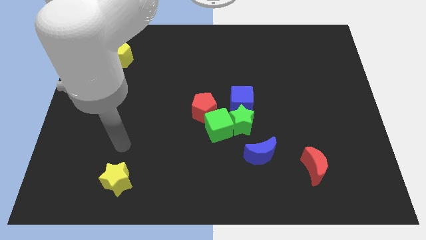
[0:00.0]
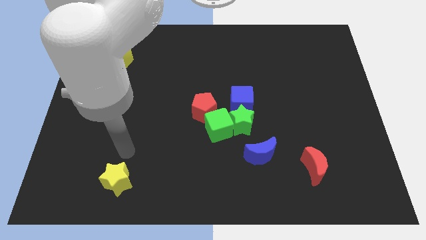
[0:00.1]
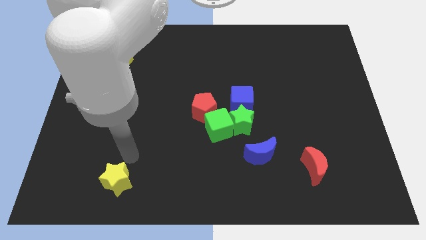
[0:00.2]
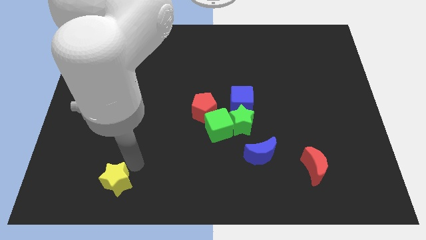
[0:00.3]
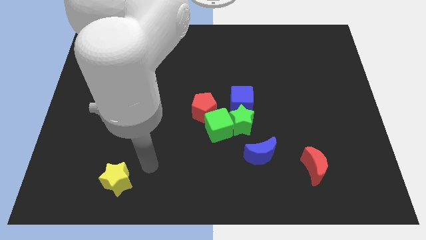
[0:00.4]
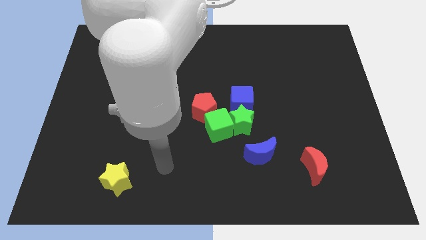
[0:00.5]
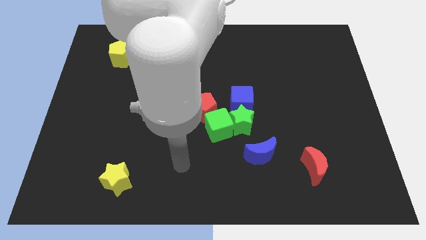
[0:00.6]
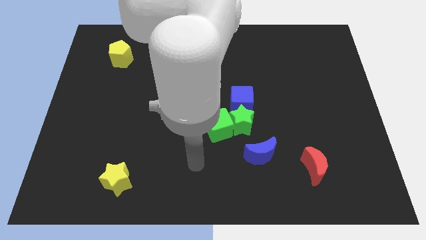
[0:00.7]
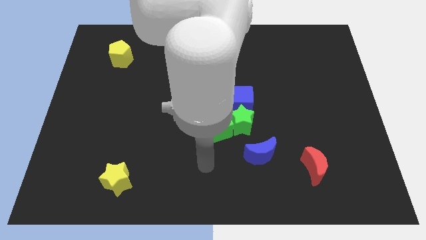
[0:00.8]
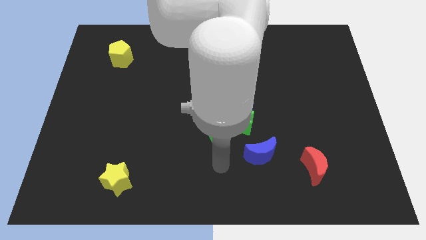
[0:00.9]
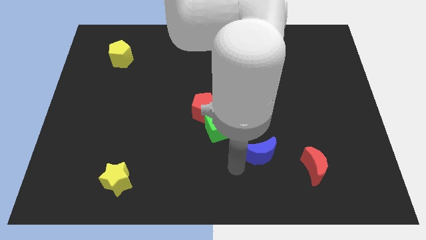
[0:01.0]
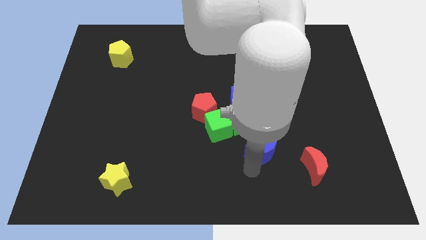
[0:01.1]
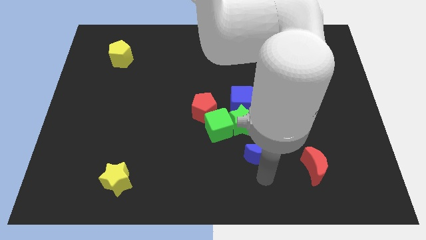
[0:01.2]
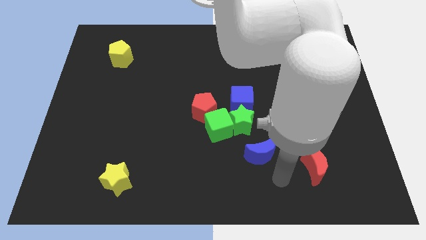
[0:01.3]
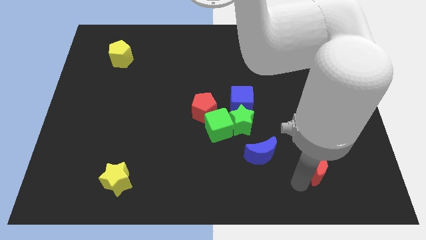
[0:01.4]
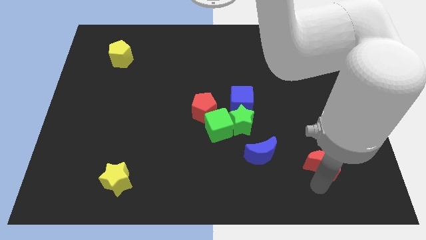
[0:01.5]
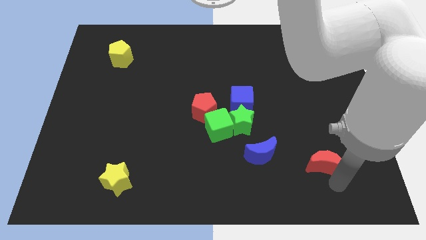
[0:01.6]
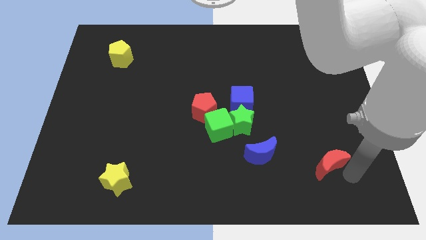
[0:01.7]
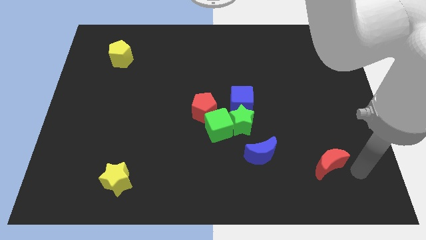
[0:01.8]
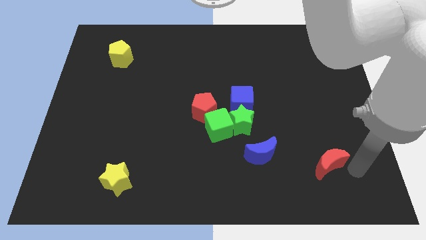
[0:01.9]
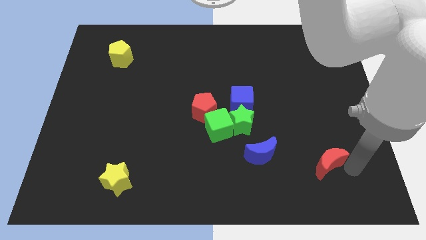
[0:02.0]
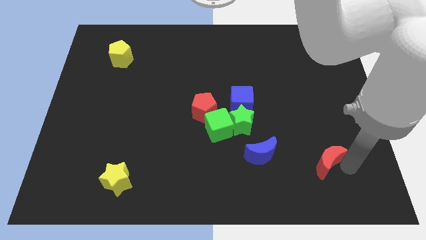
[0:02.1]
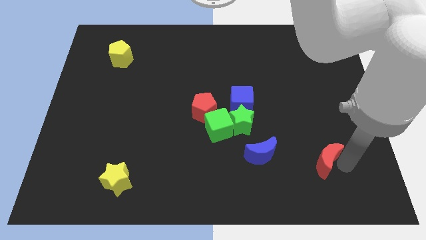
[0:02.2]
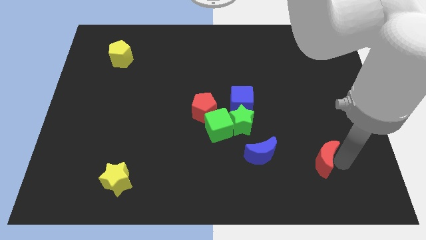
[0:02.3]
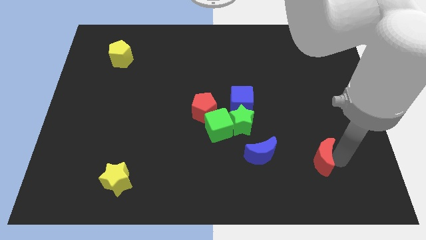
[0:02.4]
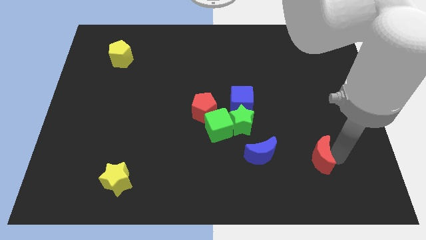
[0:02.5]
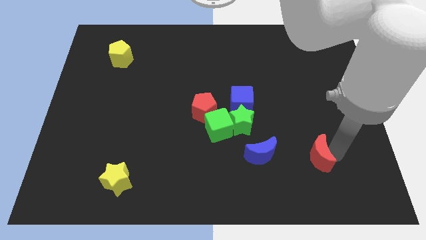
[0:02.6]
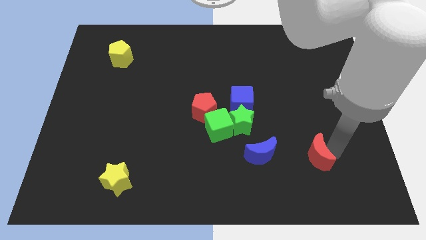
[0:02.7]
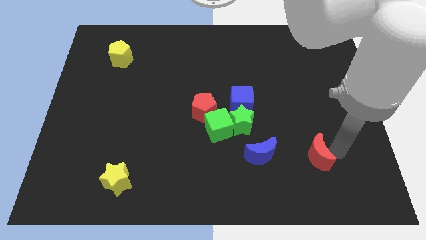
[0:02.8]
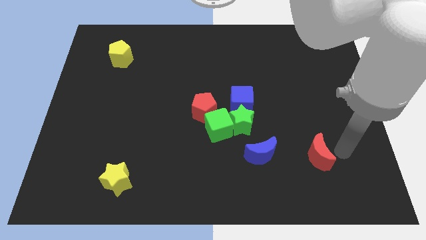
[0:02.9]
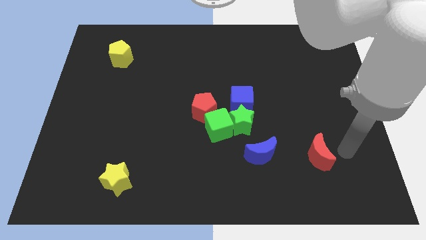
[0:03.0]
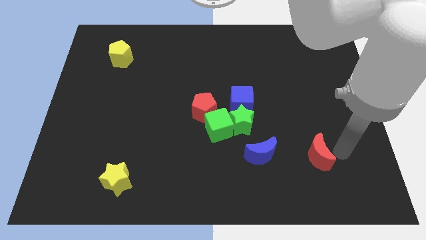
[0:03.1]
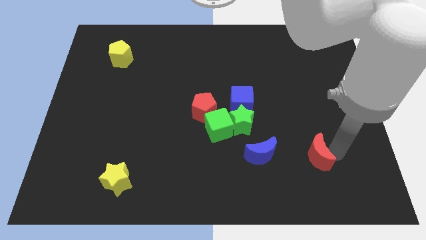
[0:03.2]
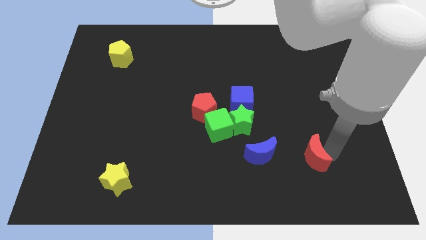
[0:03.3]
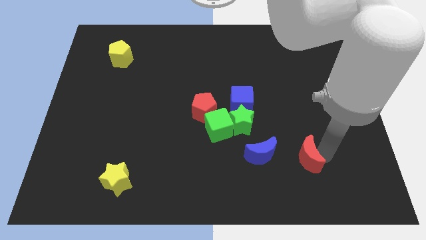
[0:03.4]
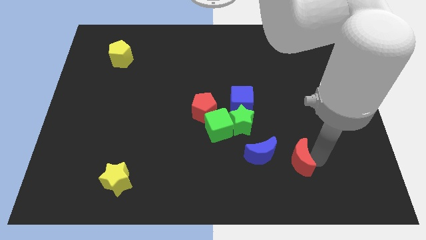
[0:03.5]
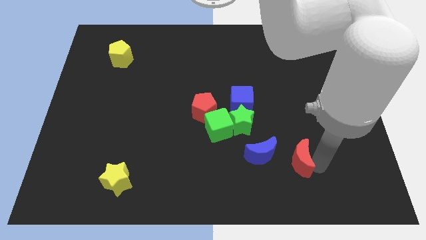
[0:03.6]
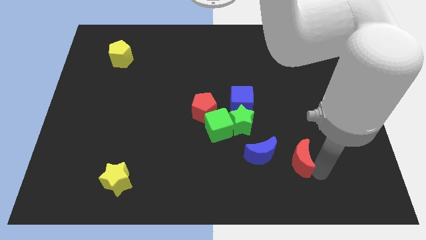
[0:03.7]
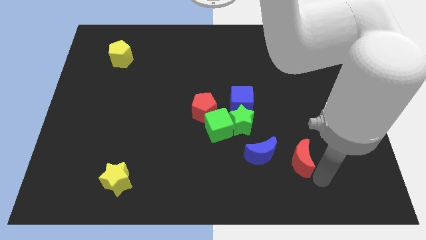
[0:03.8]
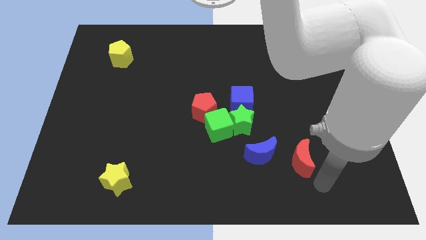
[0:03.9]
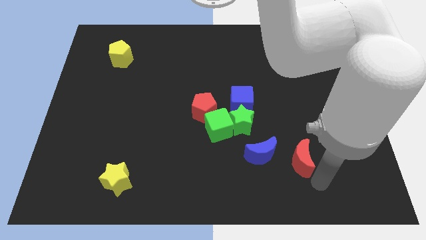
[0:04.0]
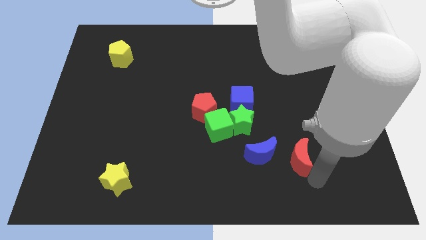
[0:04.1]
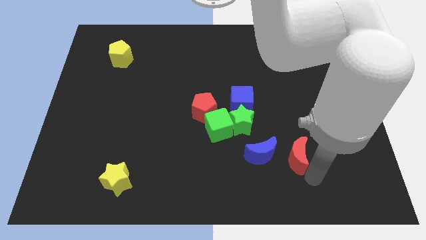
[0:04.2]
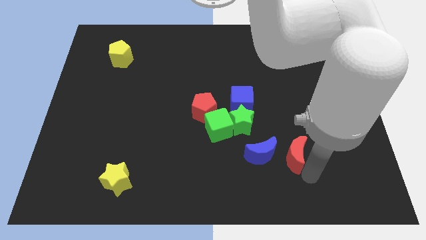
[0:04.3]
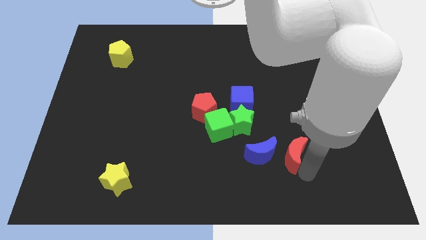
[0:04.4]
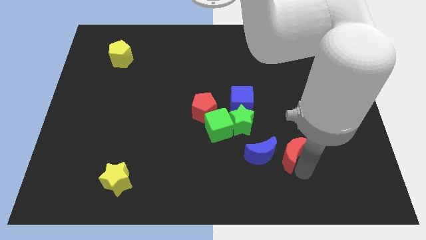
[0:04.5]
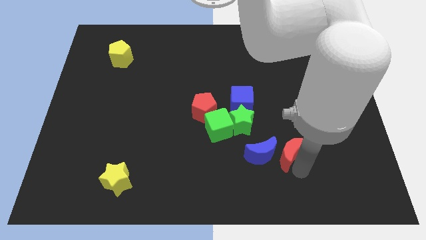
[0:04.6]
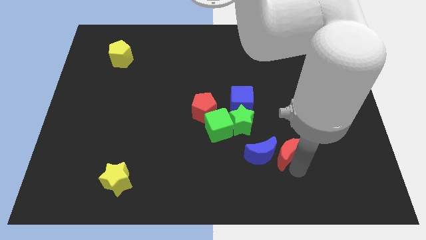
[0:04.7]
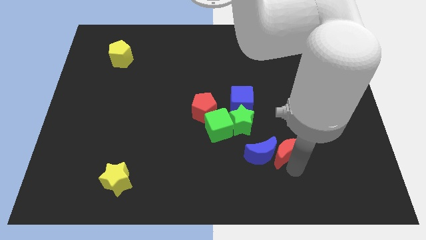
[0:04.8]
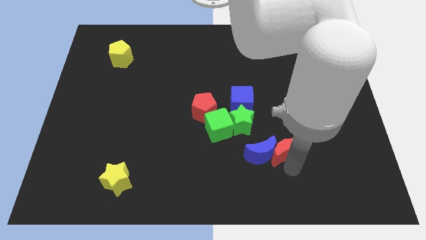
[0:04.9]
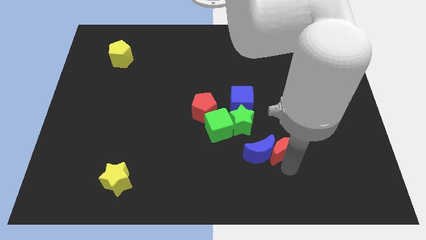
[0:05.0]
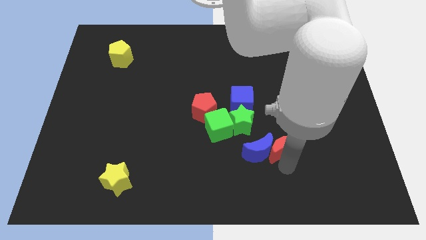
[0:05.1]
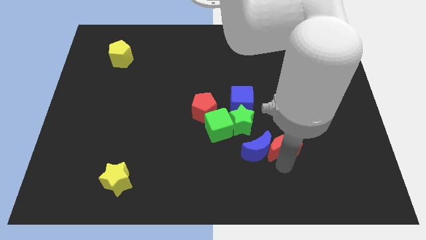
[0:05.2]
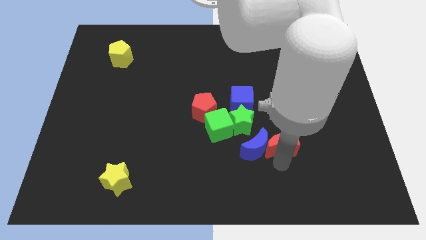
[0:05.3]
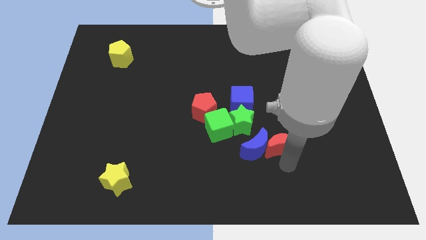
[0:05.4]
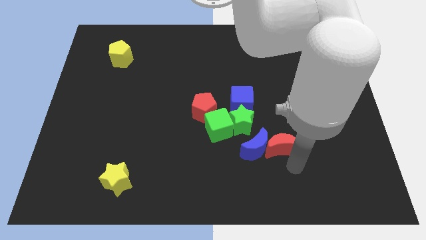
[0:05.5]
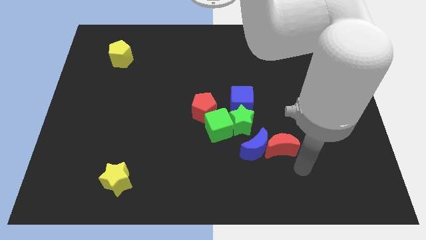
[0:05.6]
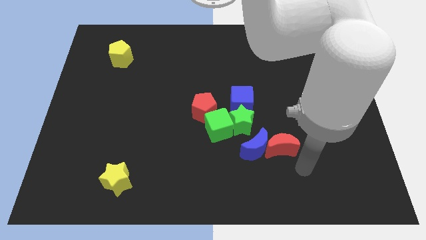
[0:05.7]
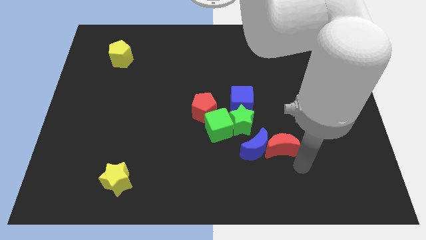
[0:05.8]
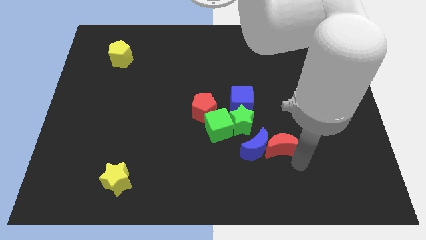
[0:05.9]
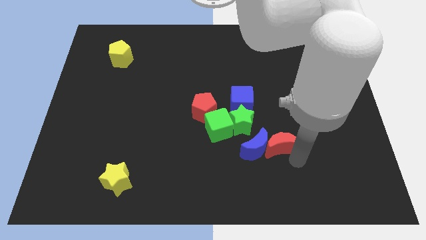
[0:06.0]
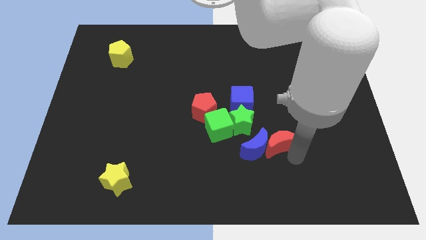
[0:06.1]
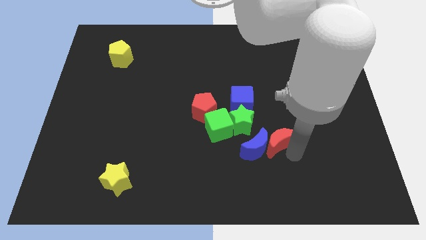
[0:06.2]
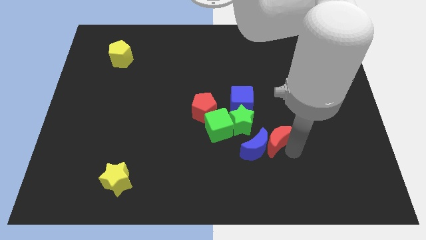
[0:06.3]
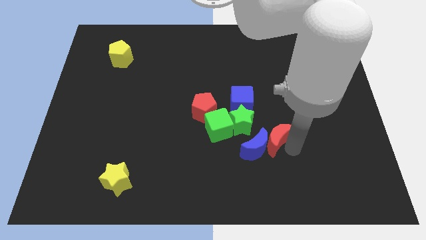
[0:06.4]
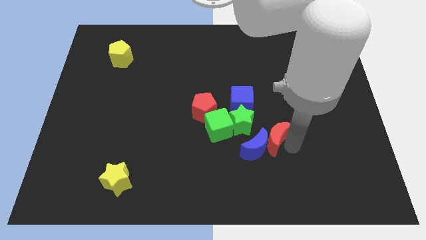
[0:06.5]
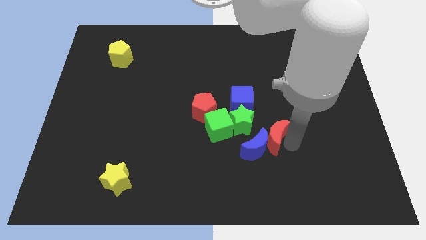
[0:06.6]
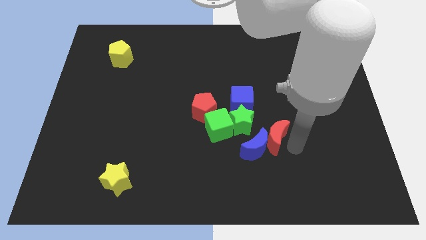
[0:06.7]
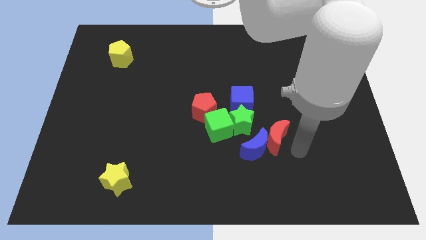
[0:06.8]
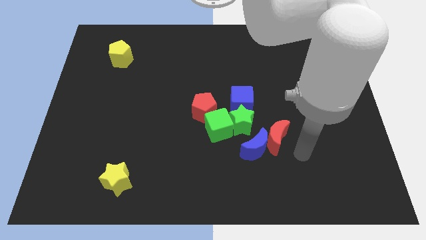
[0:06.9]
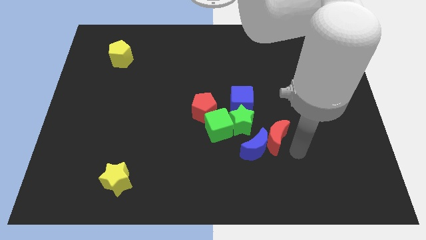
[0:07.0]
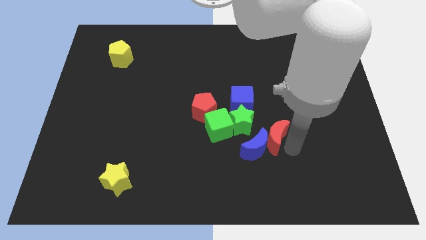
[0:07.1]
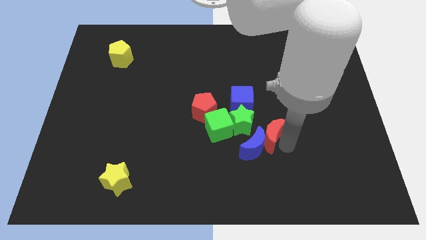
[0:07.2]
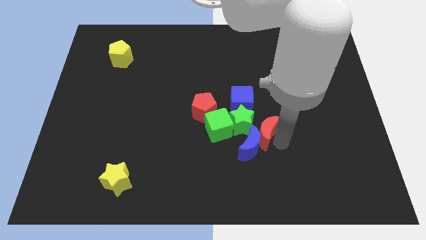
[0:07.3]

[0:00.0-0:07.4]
push the red moon next to the green star
